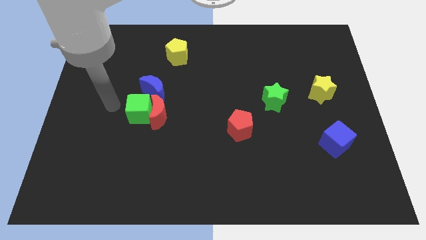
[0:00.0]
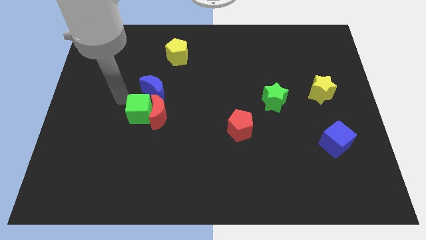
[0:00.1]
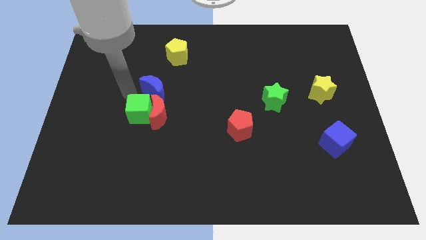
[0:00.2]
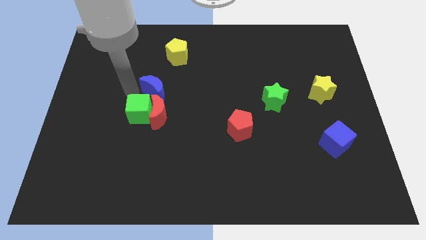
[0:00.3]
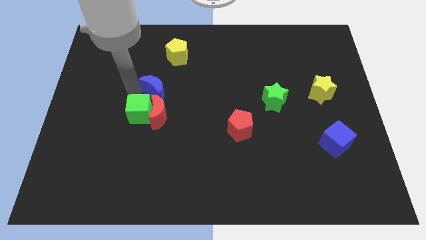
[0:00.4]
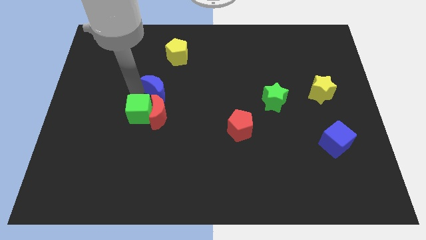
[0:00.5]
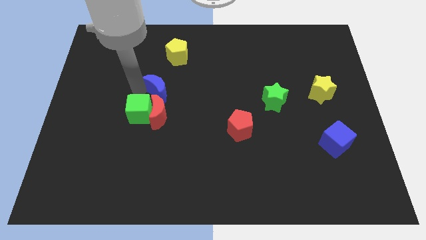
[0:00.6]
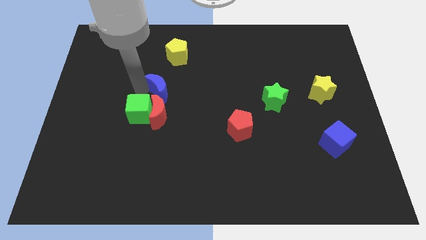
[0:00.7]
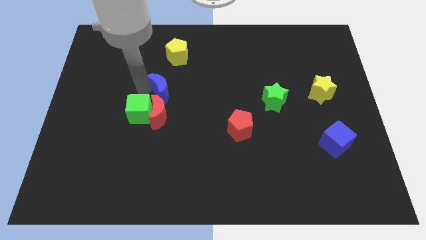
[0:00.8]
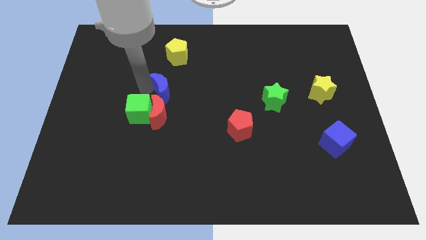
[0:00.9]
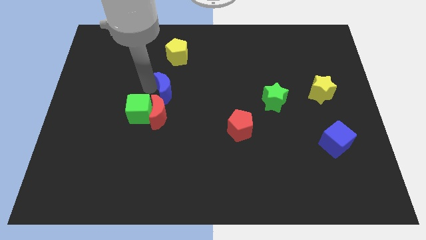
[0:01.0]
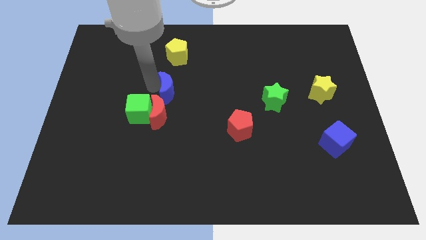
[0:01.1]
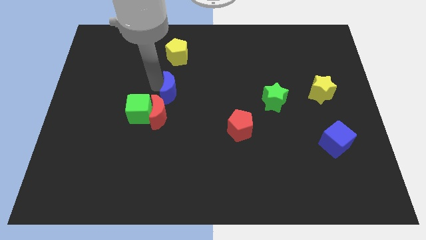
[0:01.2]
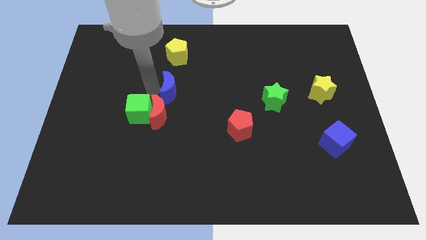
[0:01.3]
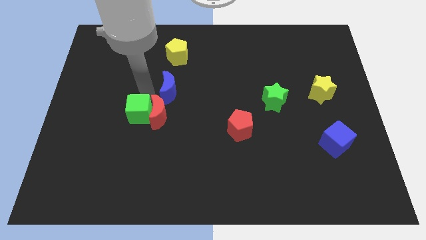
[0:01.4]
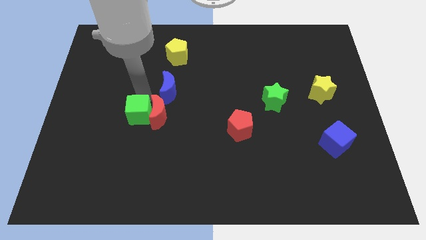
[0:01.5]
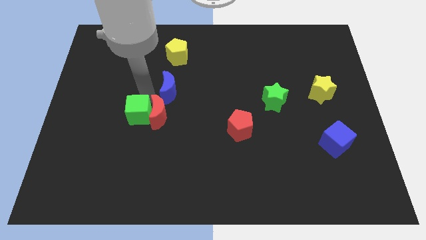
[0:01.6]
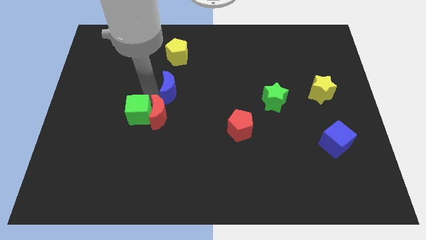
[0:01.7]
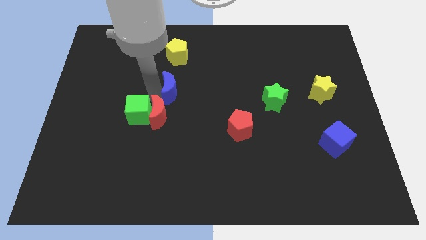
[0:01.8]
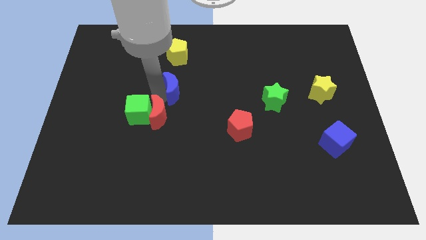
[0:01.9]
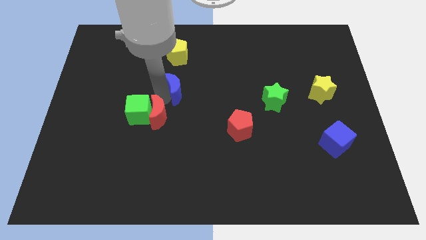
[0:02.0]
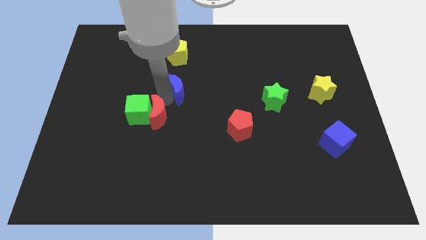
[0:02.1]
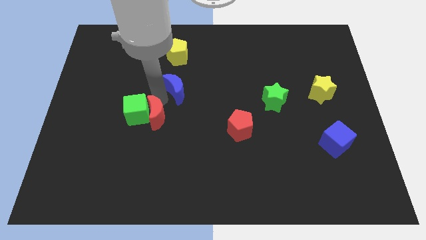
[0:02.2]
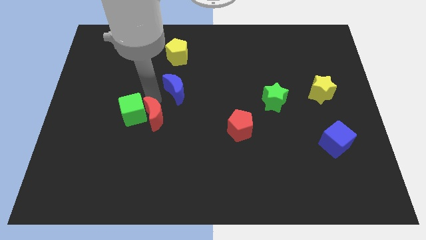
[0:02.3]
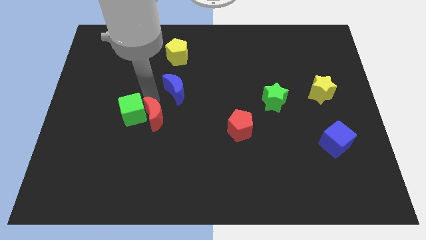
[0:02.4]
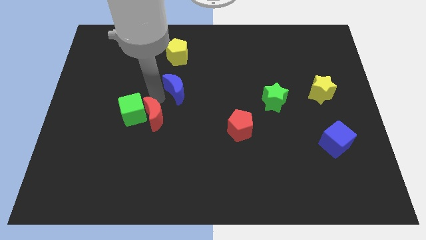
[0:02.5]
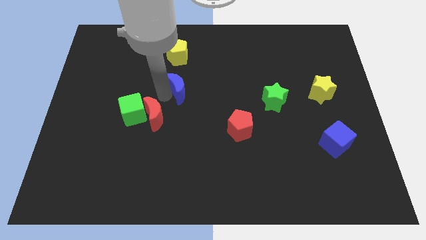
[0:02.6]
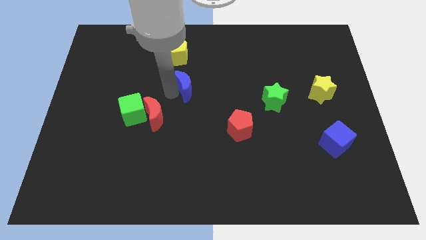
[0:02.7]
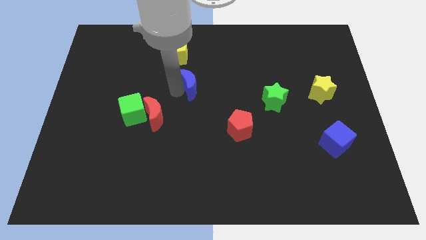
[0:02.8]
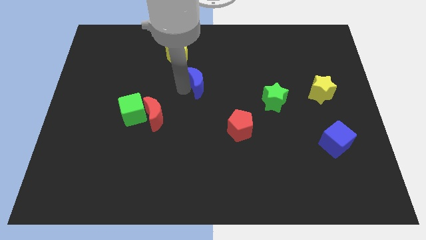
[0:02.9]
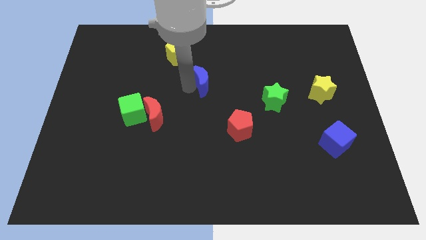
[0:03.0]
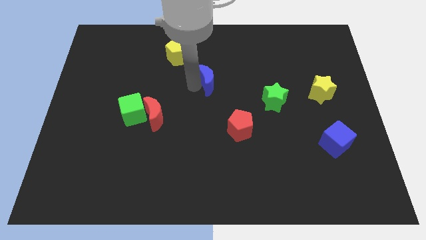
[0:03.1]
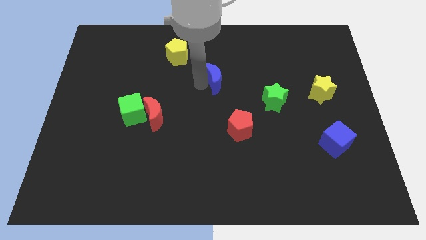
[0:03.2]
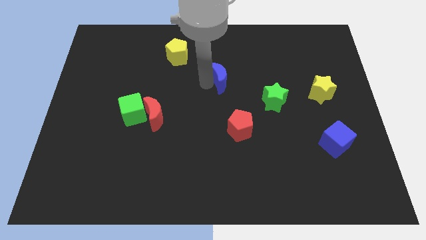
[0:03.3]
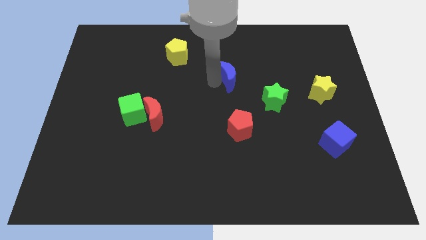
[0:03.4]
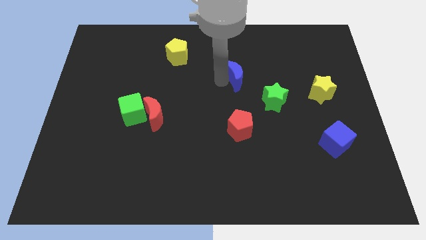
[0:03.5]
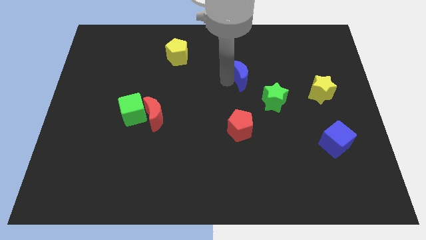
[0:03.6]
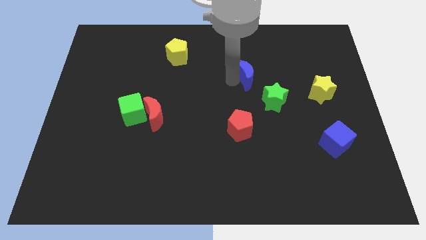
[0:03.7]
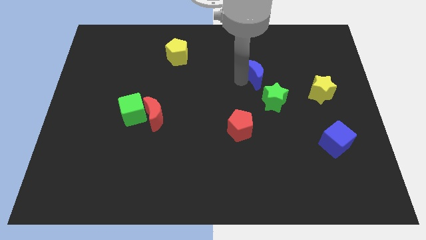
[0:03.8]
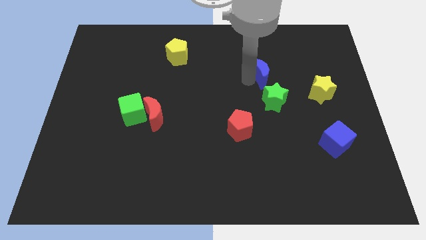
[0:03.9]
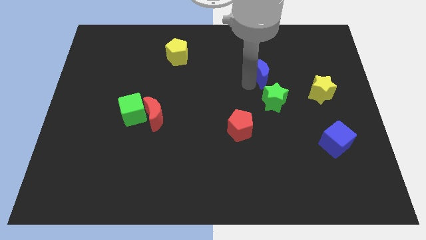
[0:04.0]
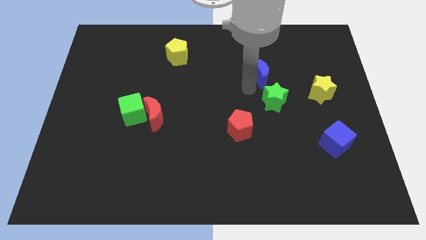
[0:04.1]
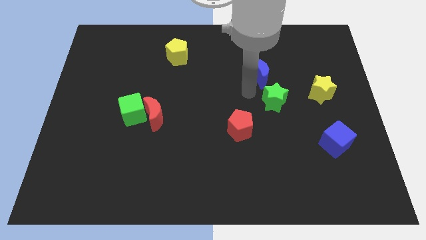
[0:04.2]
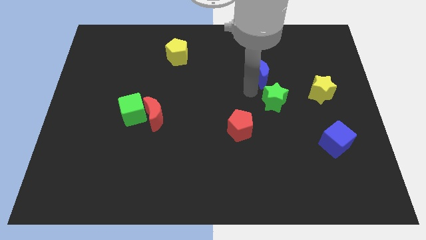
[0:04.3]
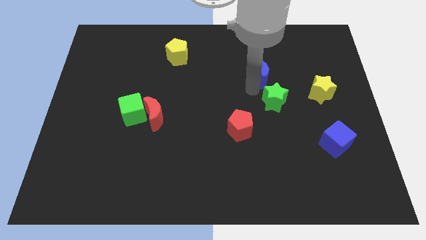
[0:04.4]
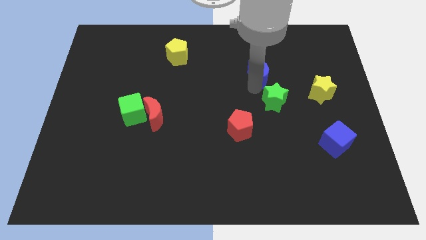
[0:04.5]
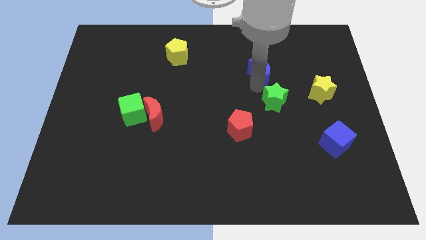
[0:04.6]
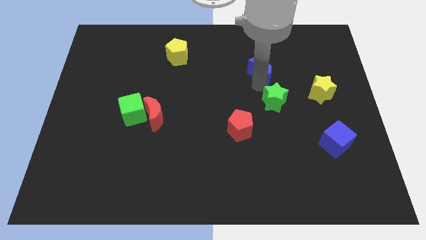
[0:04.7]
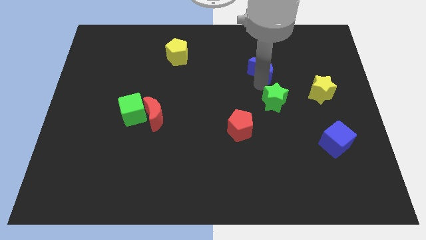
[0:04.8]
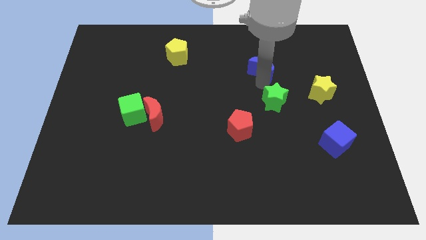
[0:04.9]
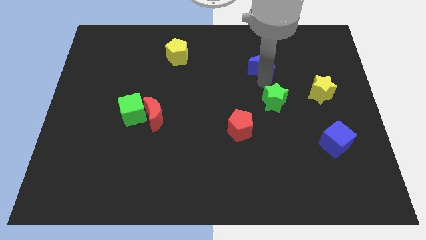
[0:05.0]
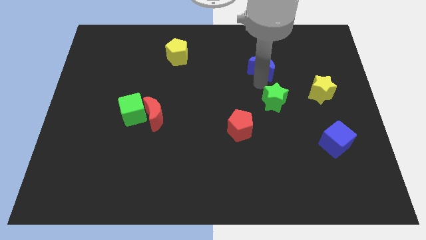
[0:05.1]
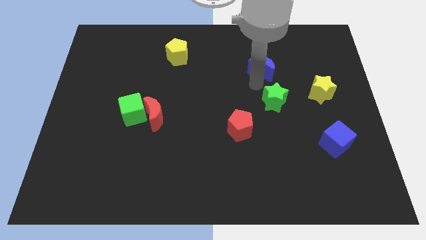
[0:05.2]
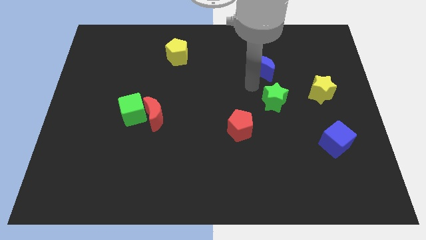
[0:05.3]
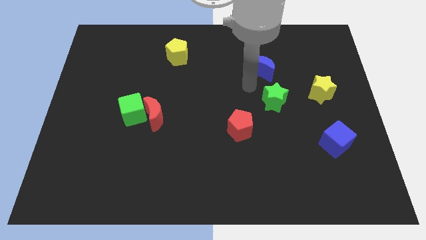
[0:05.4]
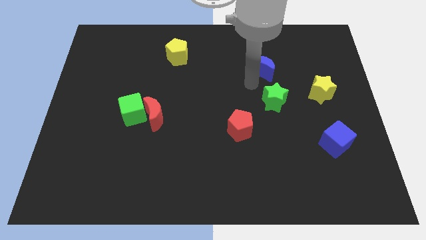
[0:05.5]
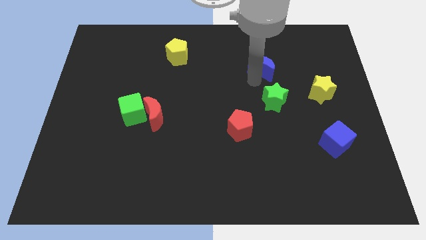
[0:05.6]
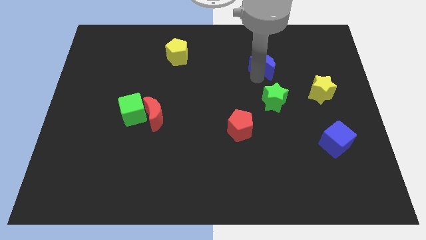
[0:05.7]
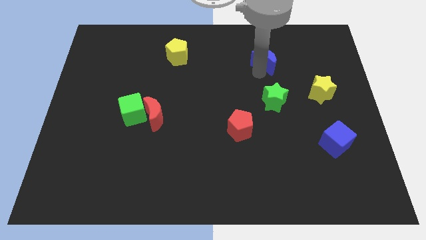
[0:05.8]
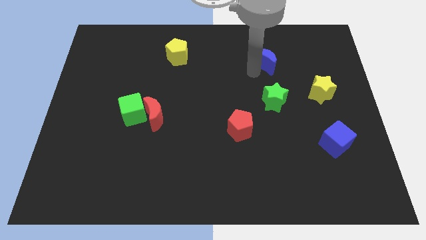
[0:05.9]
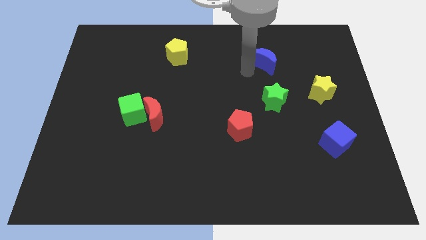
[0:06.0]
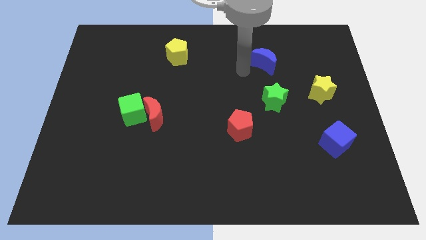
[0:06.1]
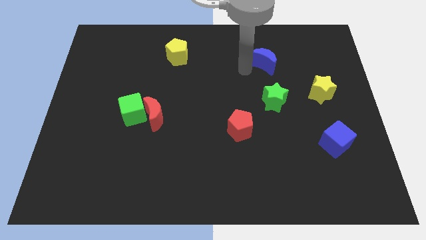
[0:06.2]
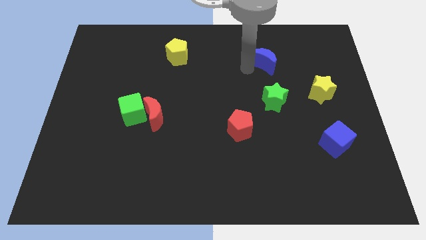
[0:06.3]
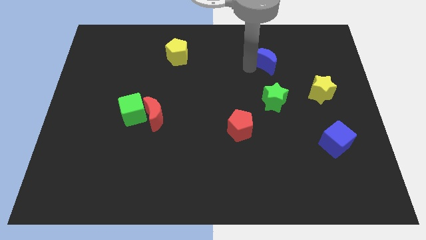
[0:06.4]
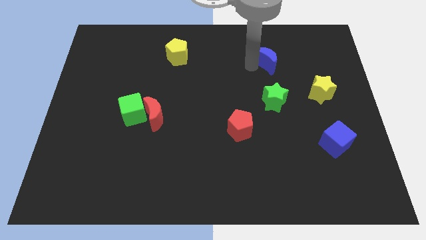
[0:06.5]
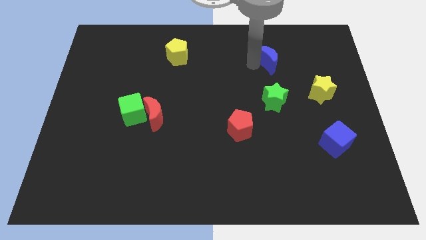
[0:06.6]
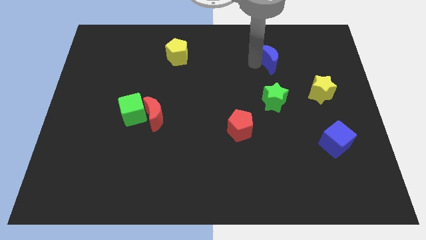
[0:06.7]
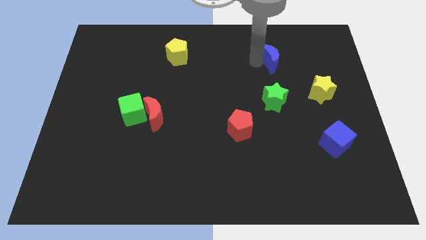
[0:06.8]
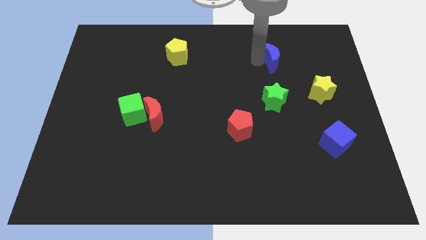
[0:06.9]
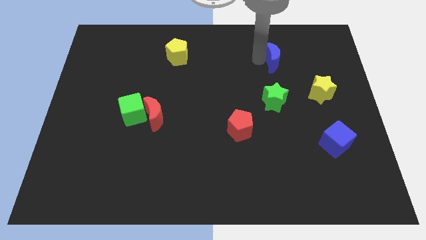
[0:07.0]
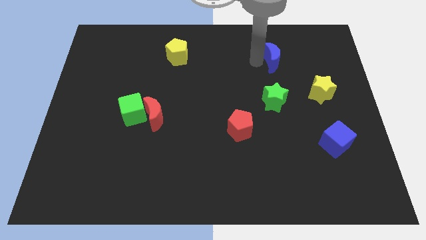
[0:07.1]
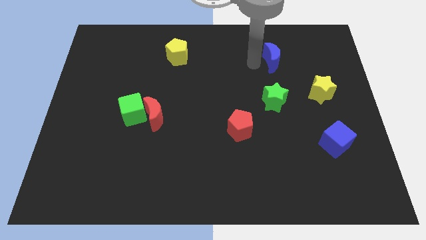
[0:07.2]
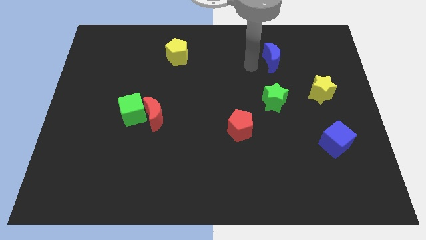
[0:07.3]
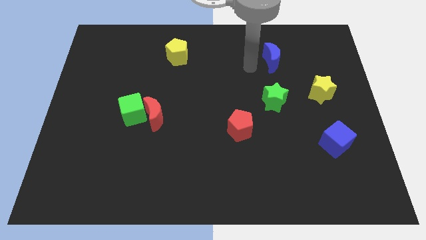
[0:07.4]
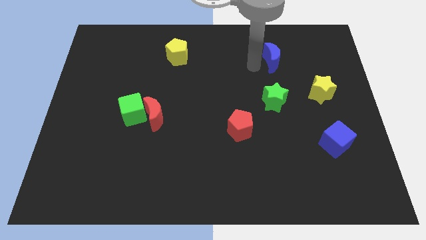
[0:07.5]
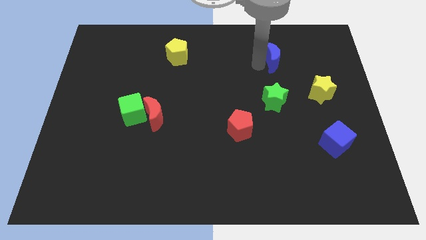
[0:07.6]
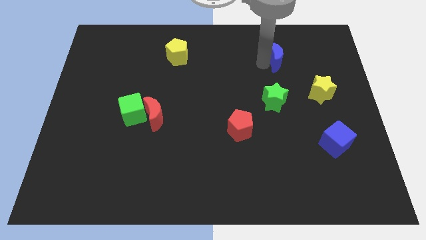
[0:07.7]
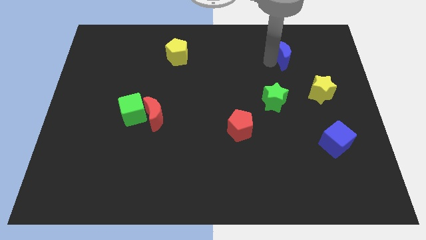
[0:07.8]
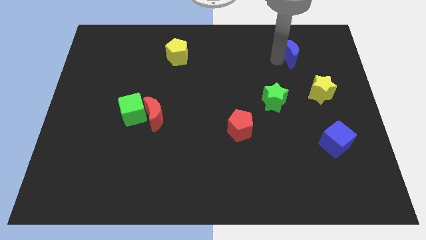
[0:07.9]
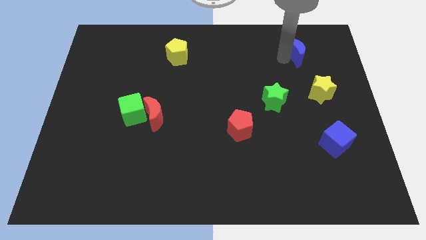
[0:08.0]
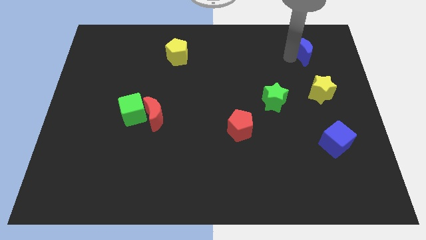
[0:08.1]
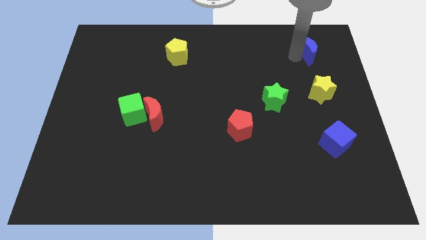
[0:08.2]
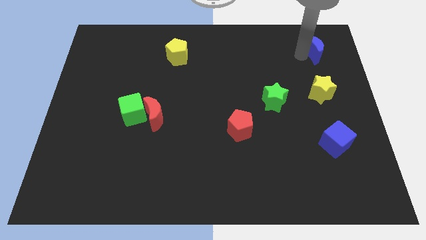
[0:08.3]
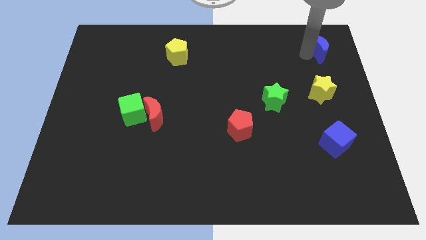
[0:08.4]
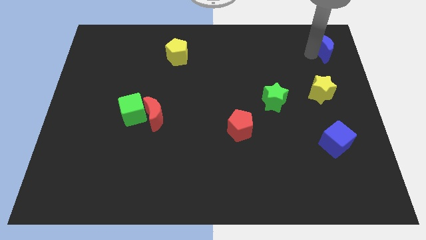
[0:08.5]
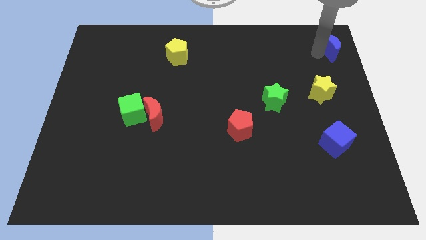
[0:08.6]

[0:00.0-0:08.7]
slide the blue moon to the top right
